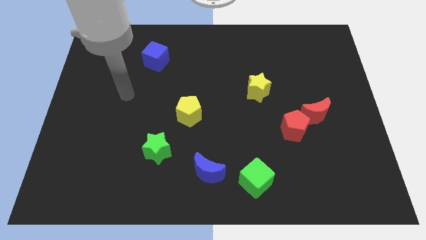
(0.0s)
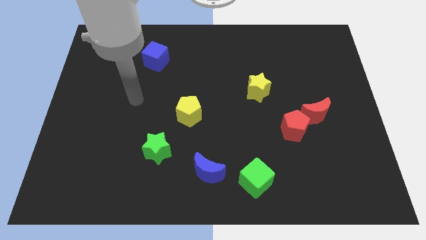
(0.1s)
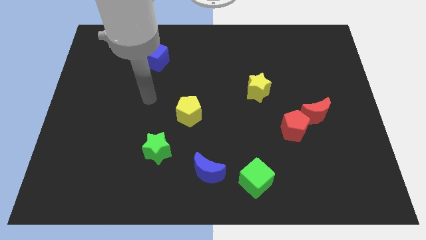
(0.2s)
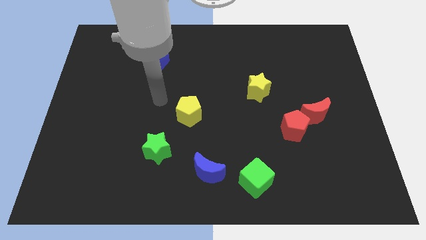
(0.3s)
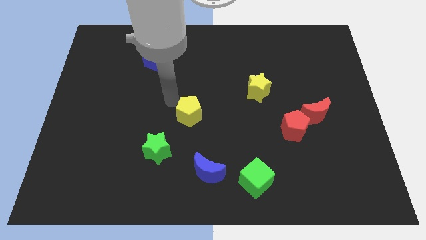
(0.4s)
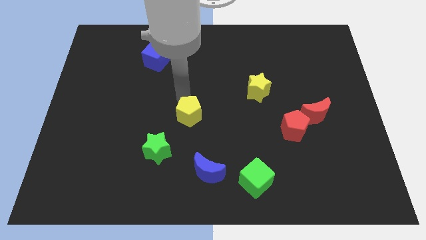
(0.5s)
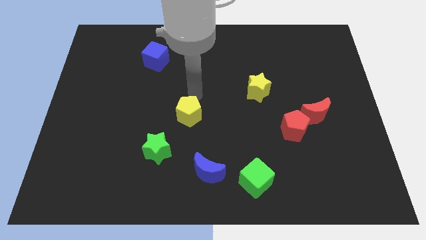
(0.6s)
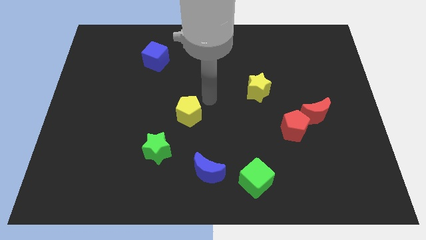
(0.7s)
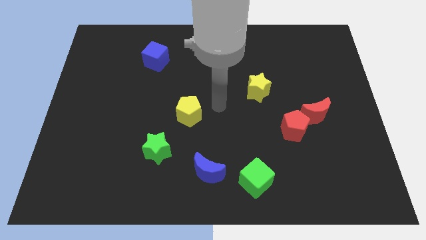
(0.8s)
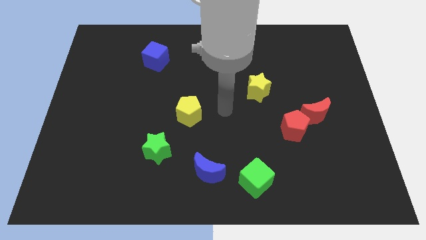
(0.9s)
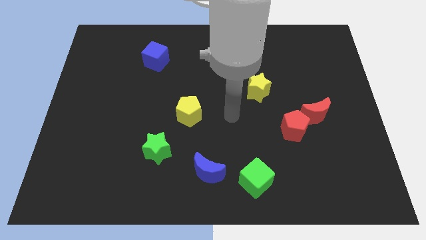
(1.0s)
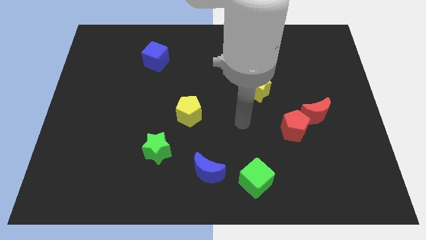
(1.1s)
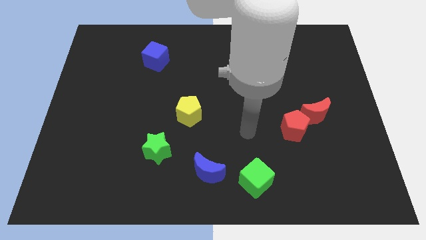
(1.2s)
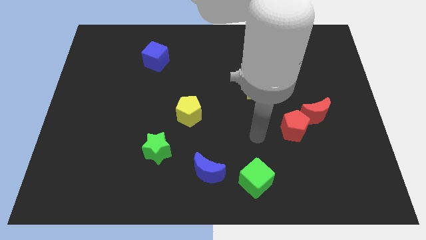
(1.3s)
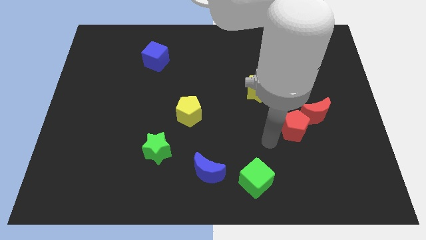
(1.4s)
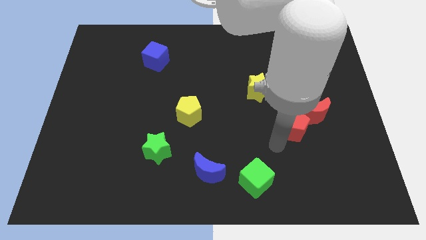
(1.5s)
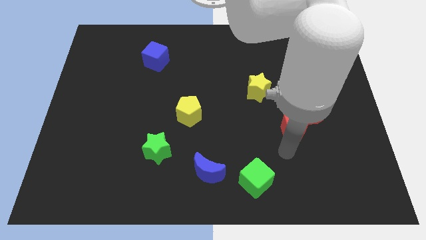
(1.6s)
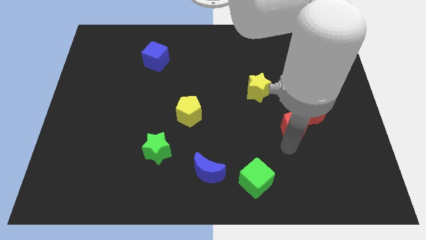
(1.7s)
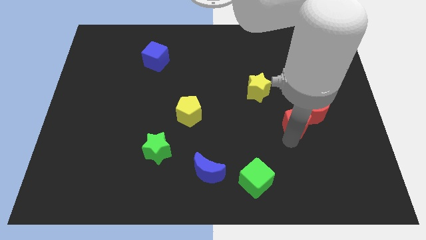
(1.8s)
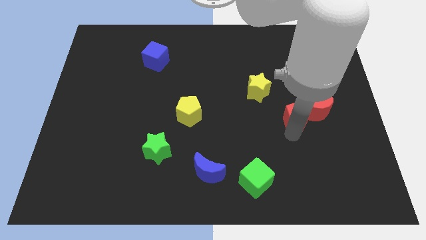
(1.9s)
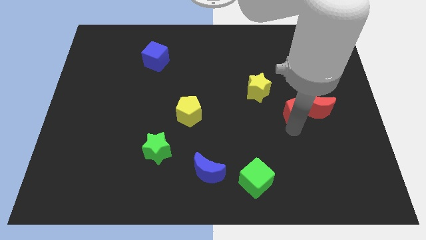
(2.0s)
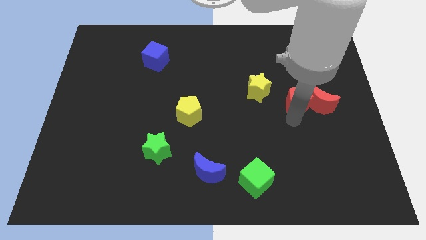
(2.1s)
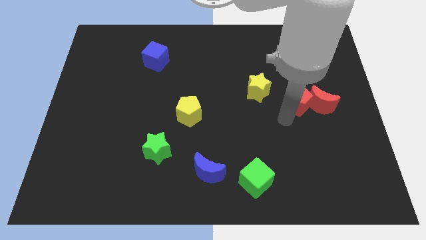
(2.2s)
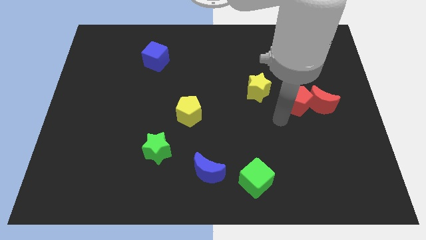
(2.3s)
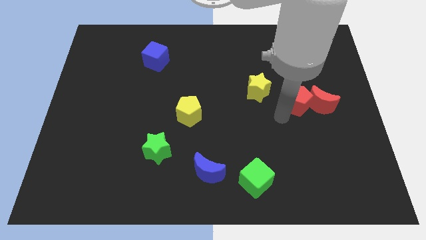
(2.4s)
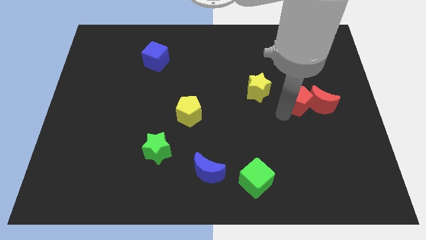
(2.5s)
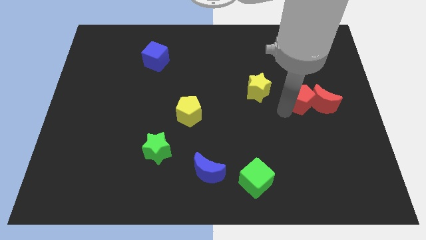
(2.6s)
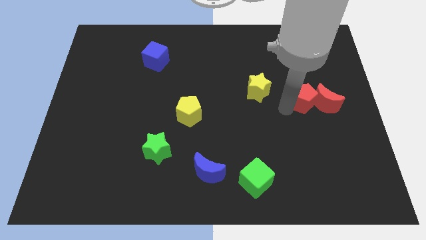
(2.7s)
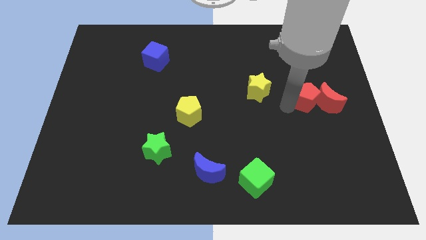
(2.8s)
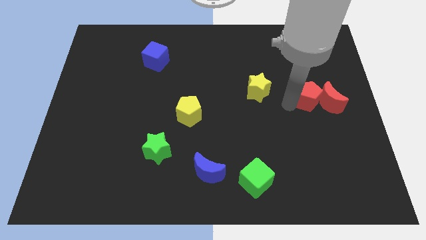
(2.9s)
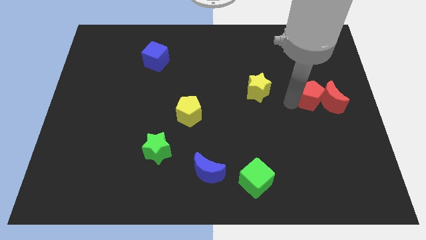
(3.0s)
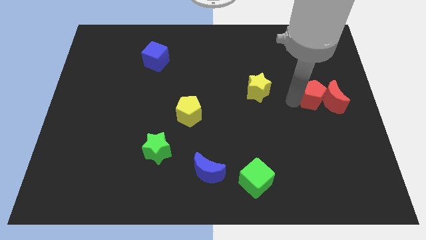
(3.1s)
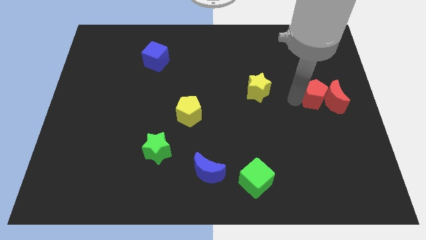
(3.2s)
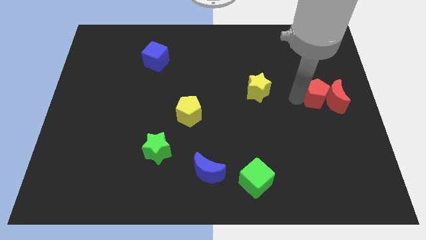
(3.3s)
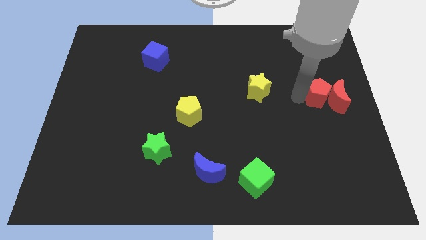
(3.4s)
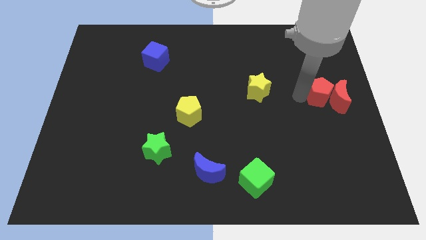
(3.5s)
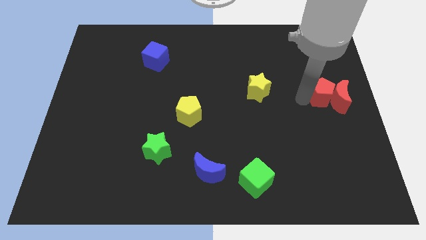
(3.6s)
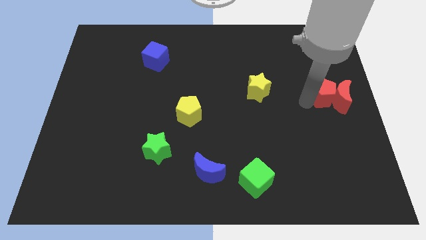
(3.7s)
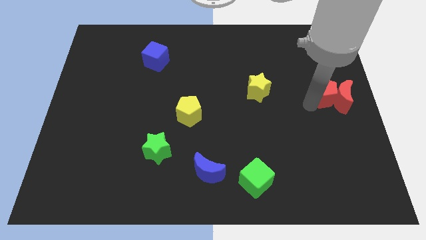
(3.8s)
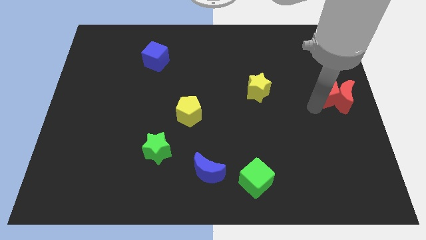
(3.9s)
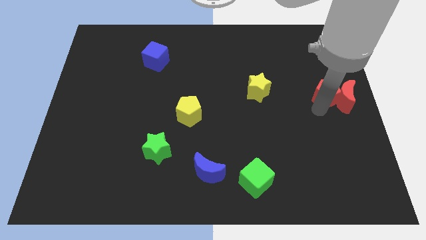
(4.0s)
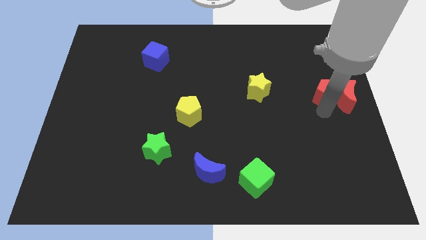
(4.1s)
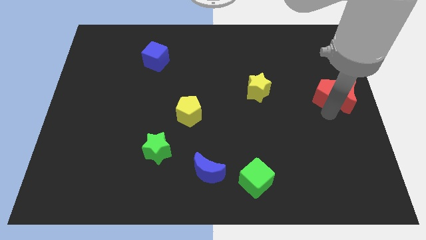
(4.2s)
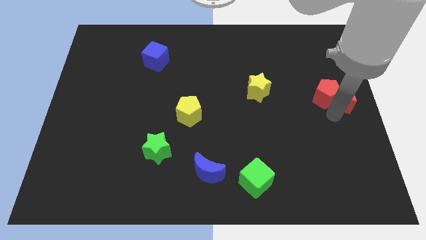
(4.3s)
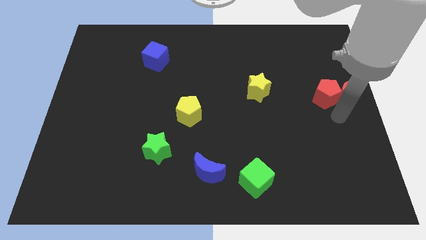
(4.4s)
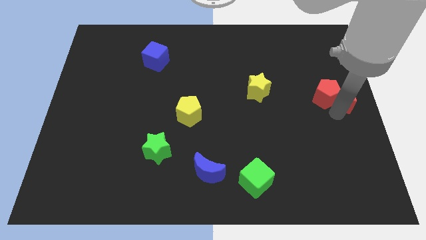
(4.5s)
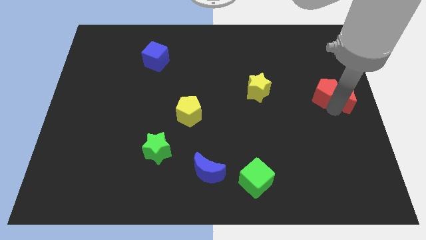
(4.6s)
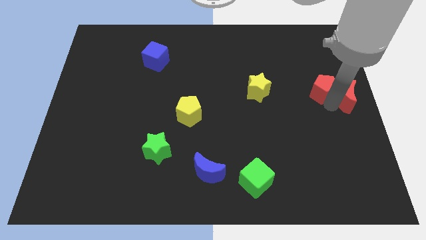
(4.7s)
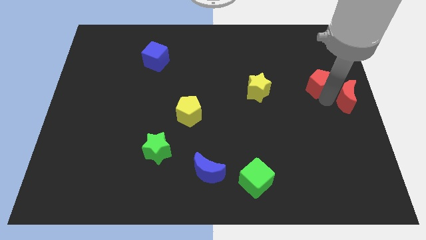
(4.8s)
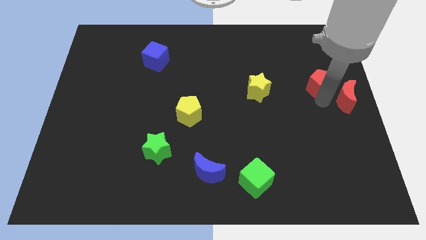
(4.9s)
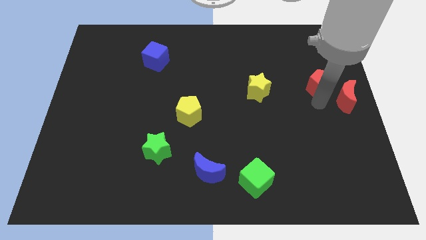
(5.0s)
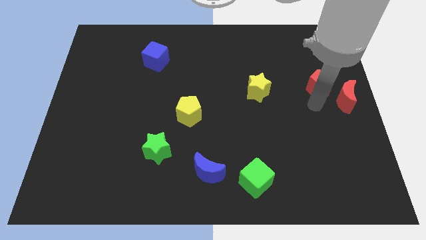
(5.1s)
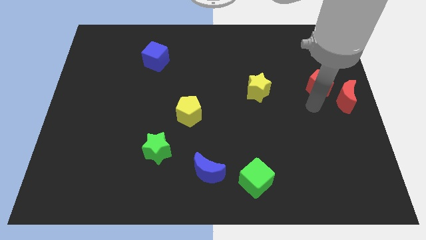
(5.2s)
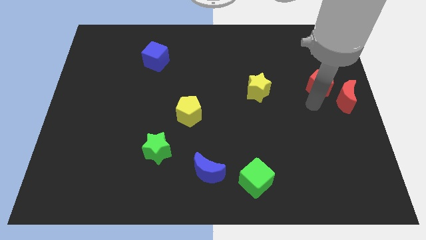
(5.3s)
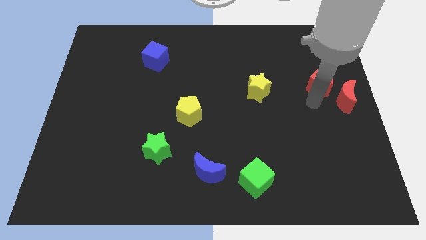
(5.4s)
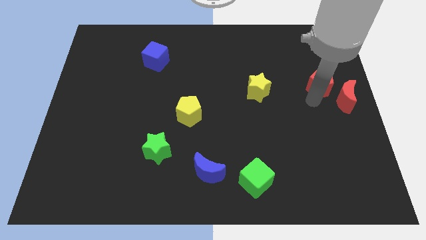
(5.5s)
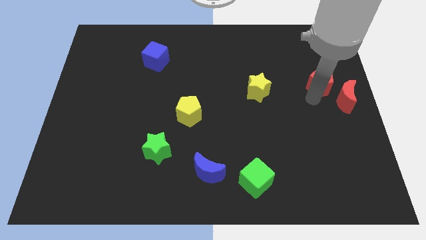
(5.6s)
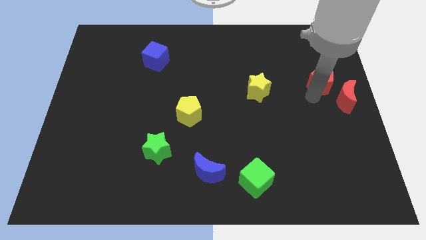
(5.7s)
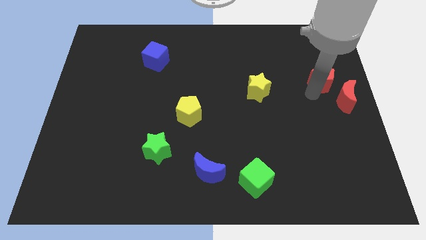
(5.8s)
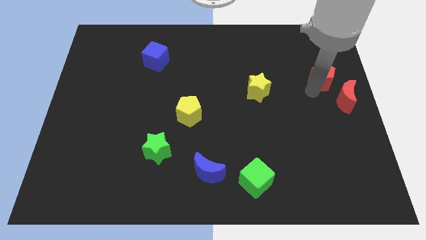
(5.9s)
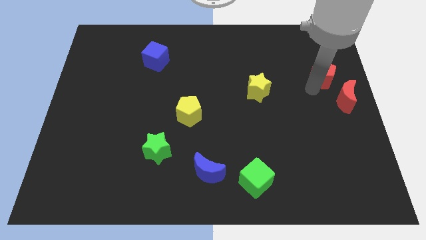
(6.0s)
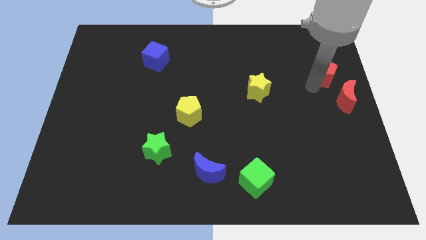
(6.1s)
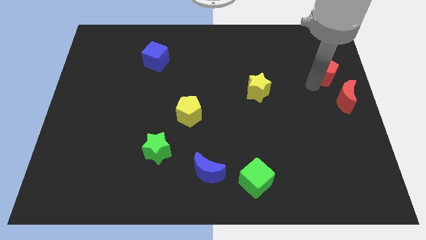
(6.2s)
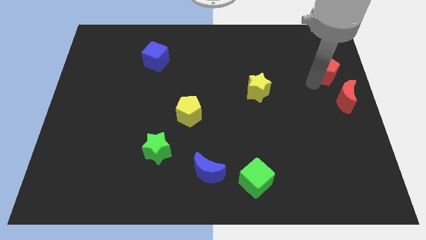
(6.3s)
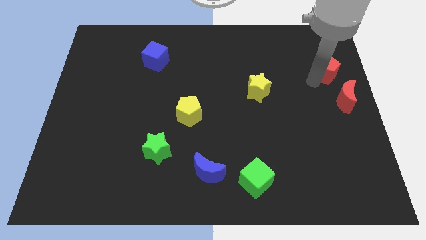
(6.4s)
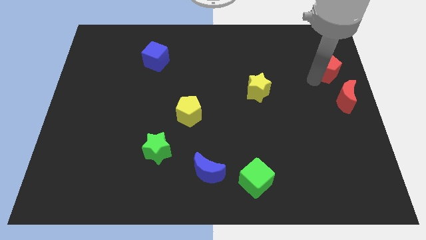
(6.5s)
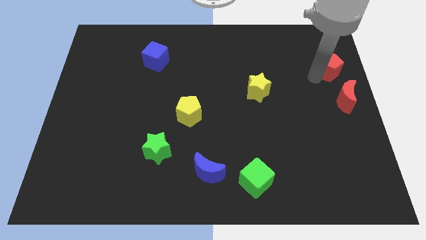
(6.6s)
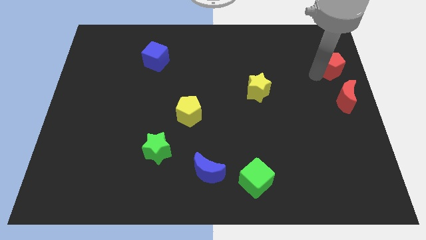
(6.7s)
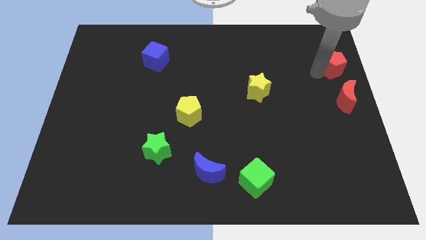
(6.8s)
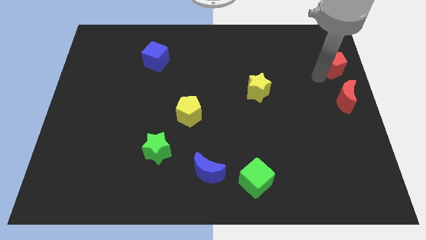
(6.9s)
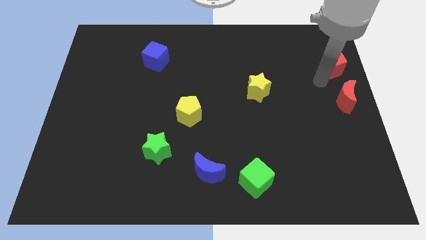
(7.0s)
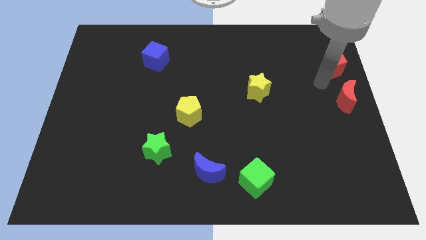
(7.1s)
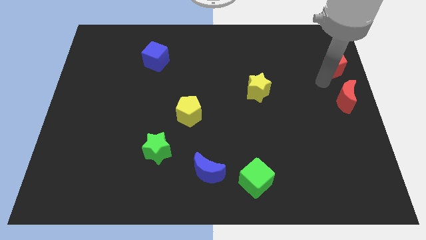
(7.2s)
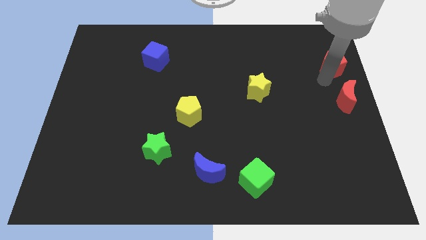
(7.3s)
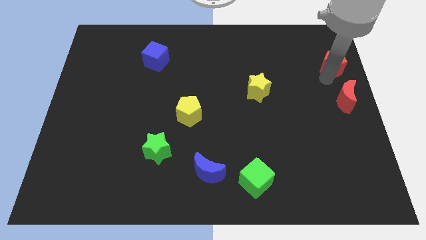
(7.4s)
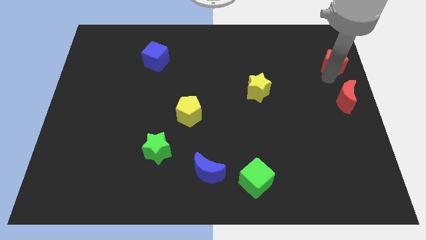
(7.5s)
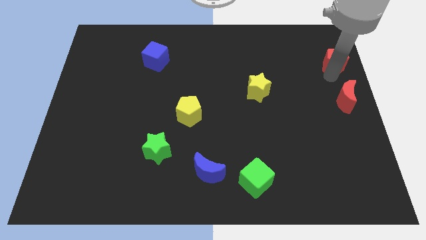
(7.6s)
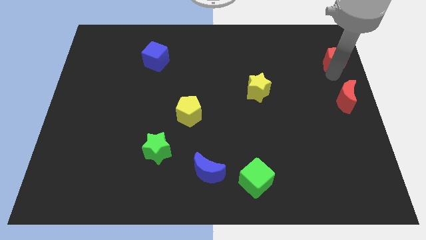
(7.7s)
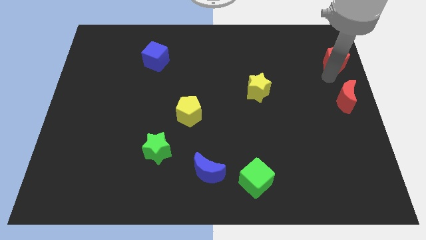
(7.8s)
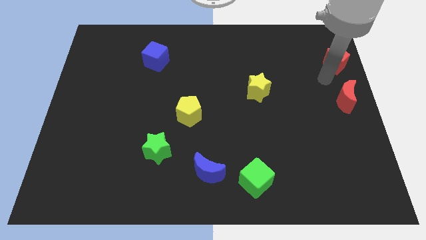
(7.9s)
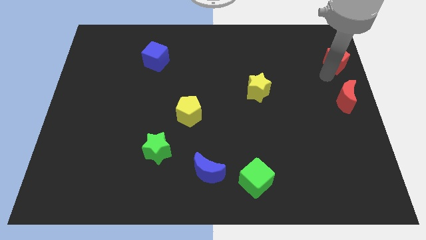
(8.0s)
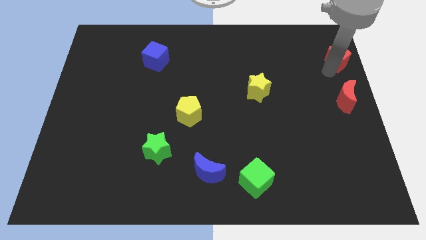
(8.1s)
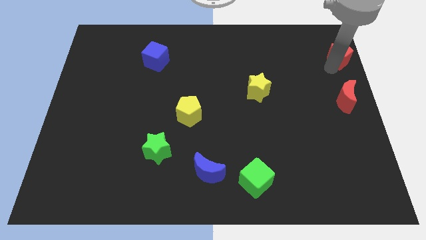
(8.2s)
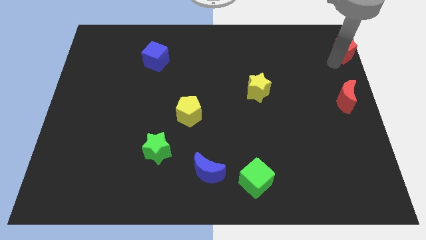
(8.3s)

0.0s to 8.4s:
put the red pentagon to the upper right corner
